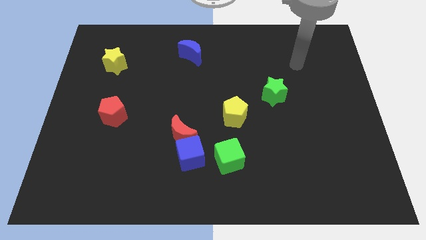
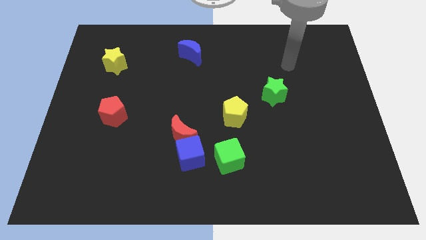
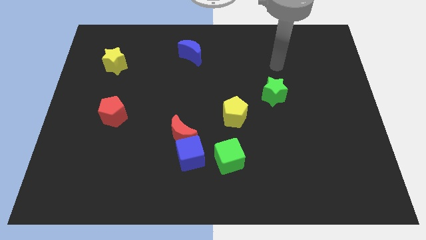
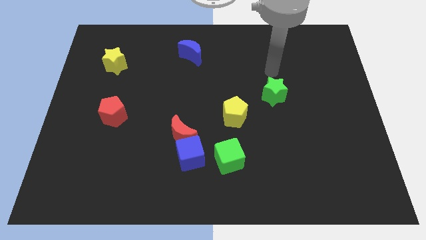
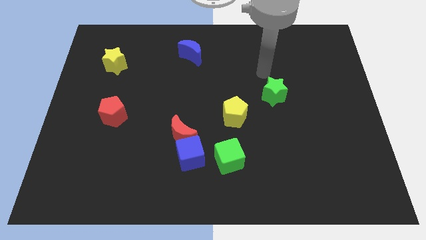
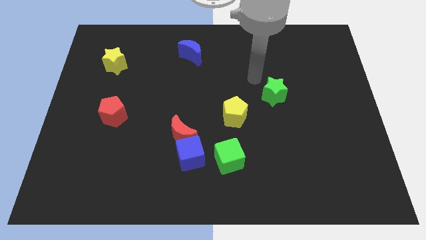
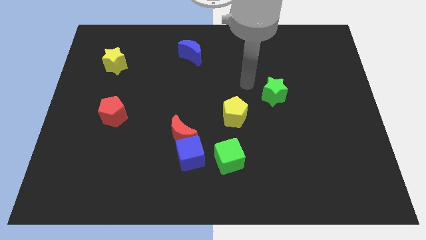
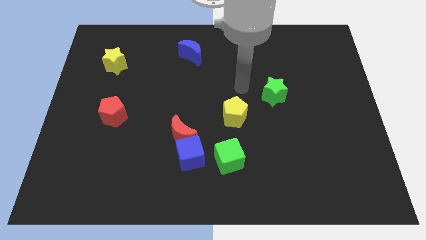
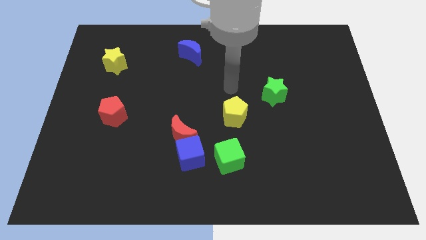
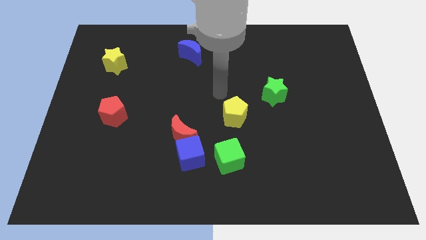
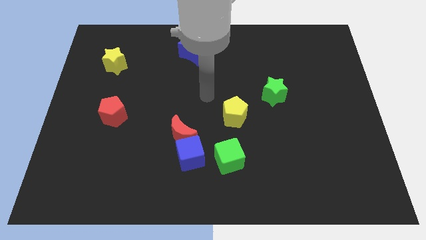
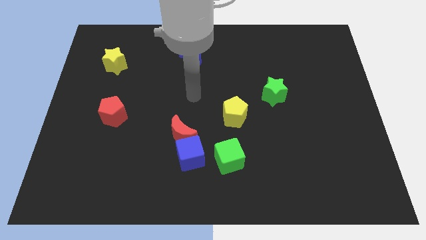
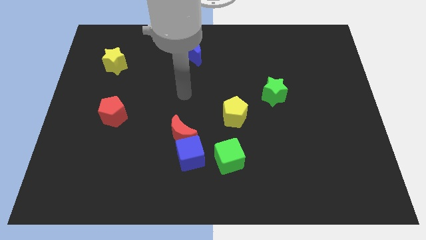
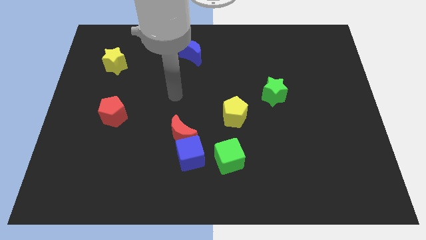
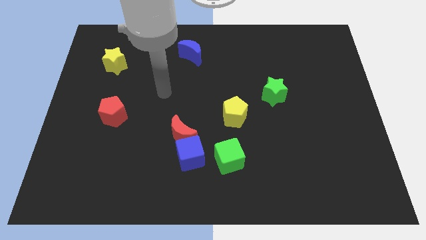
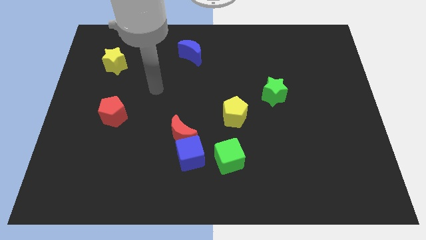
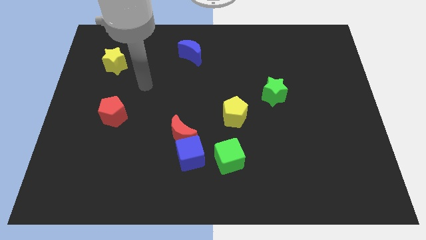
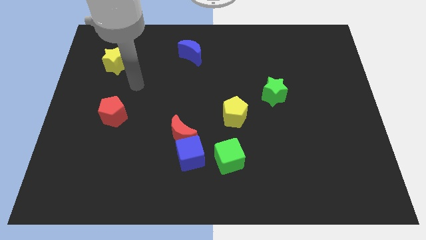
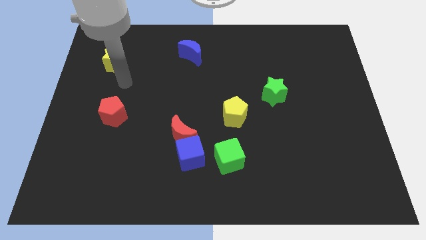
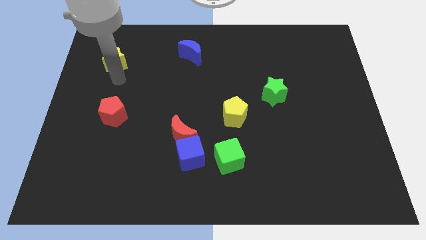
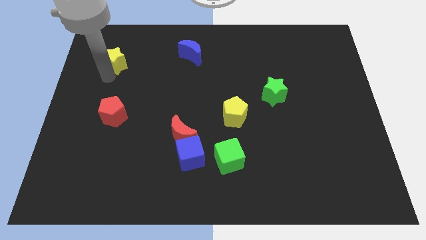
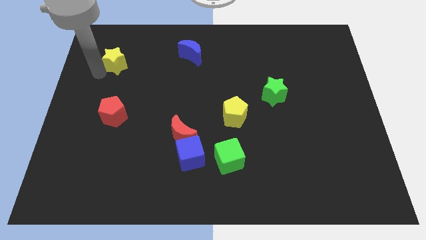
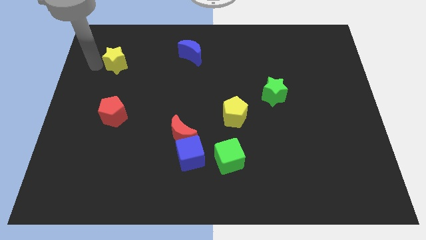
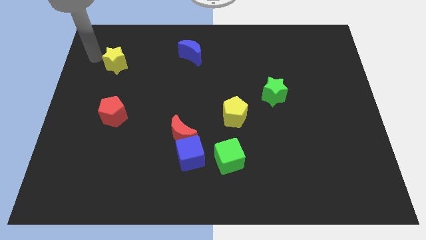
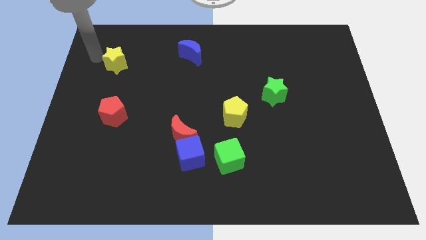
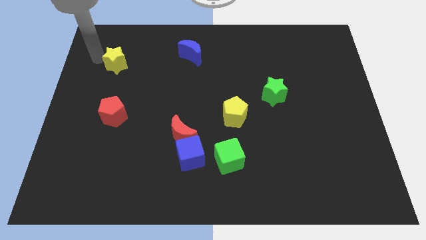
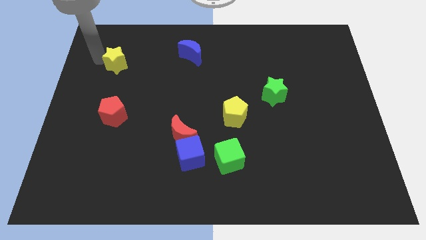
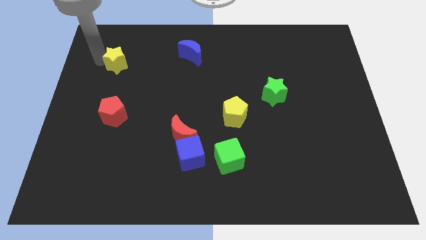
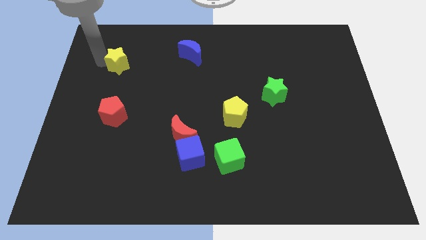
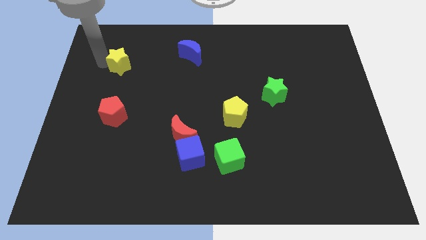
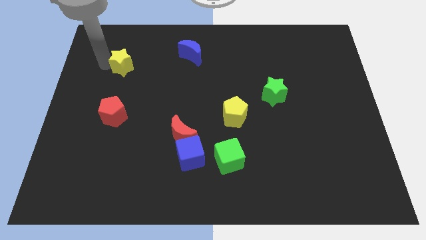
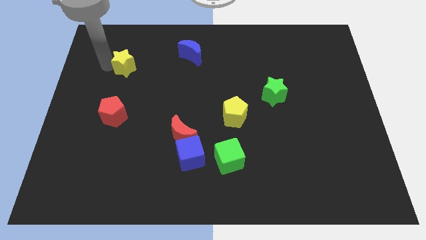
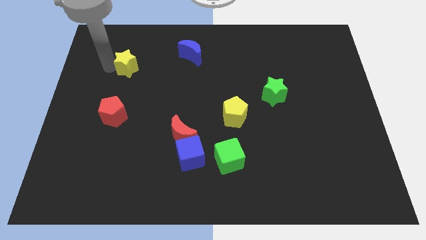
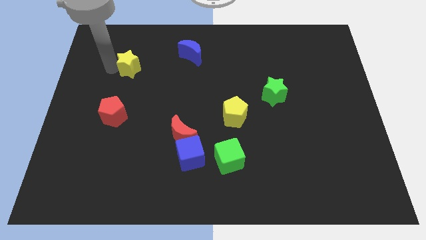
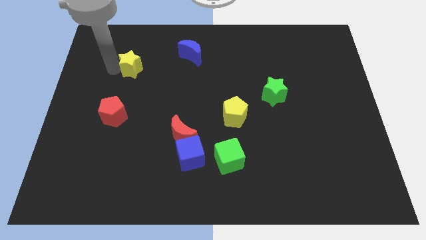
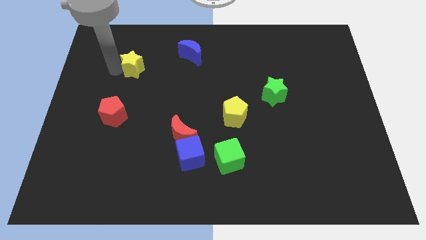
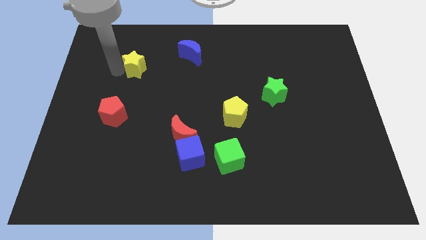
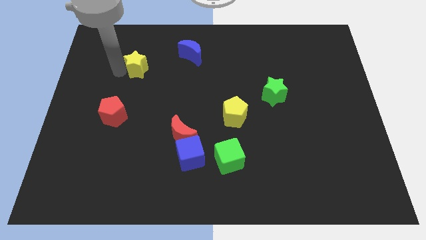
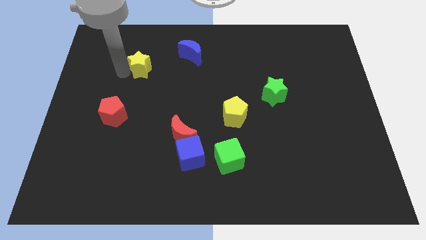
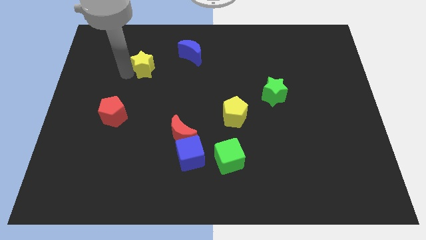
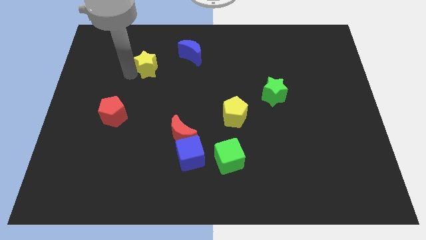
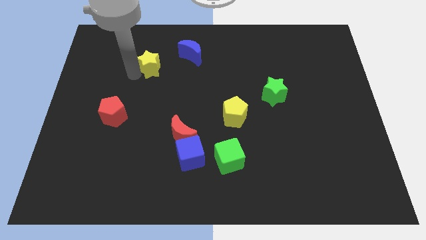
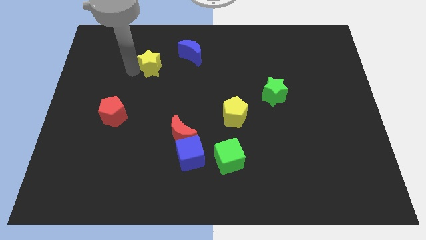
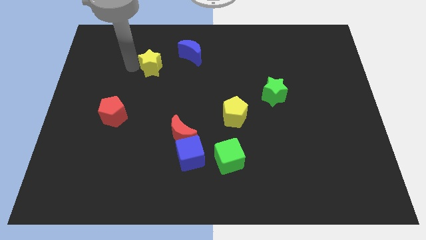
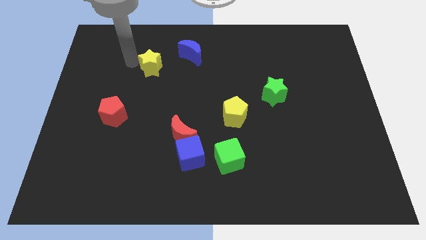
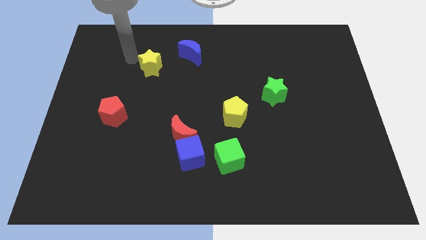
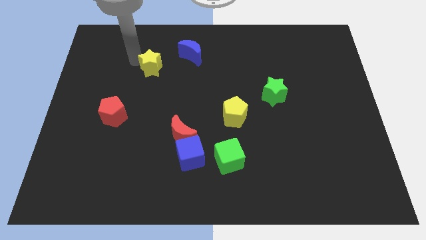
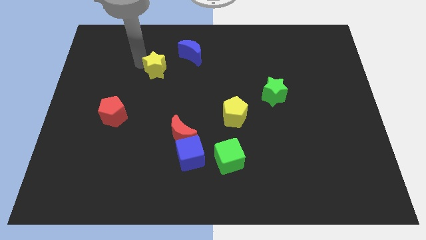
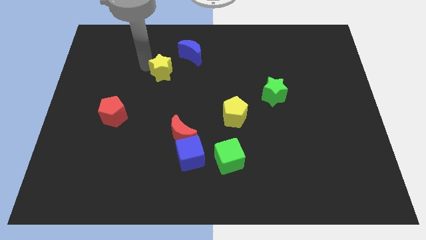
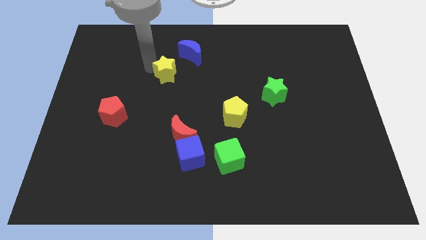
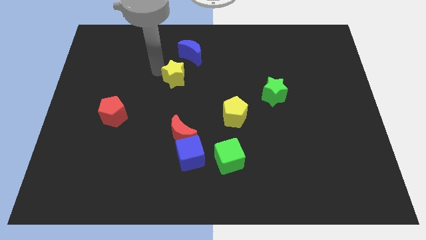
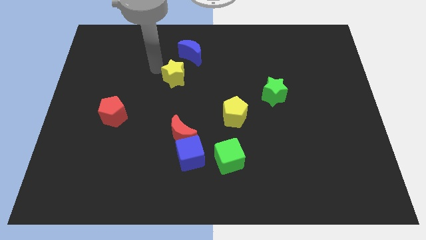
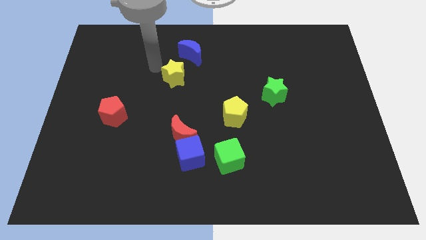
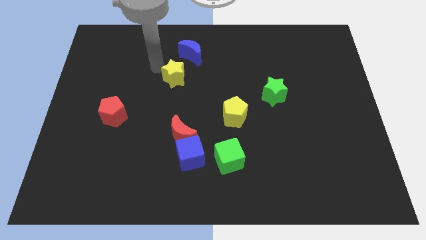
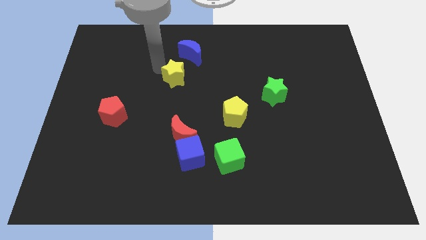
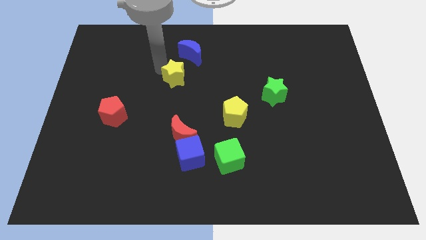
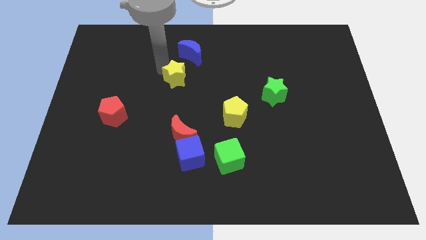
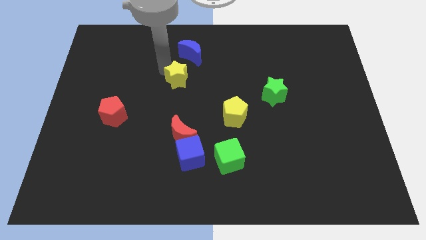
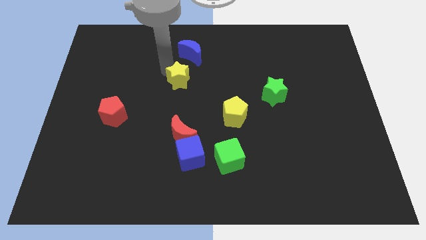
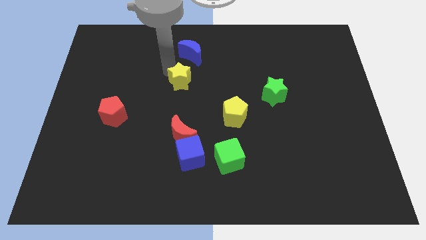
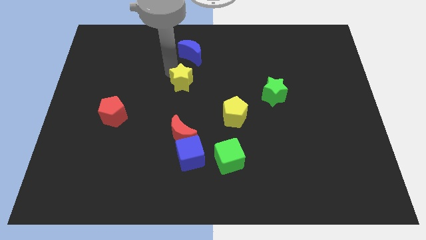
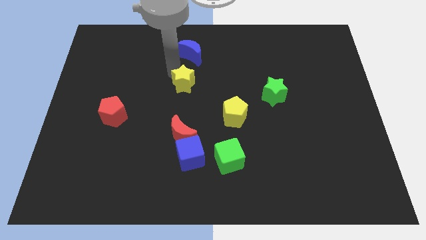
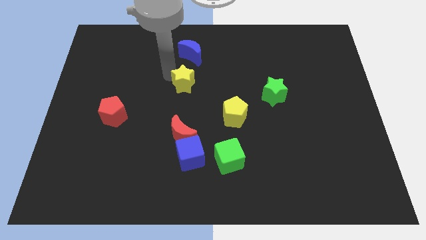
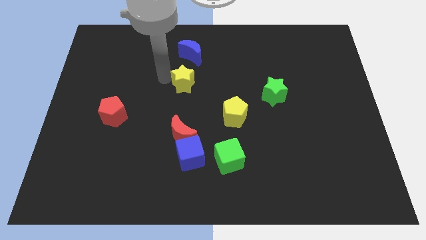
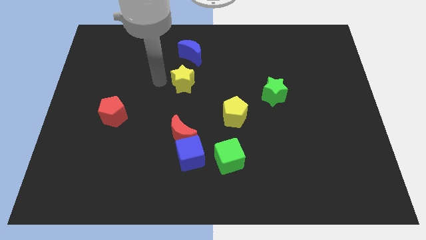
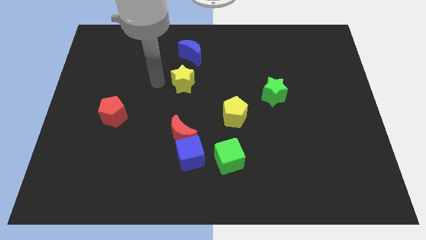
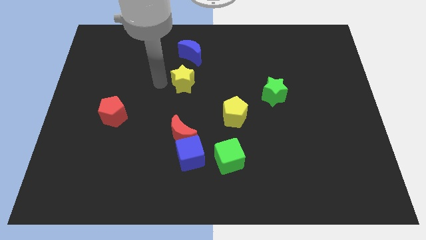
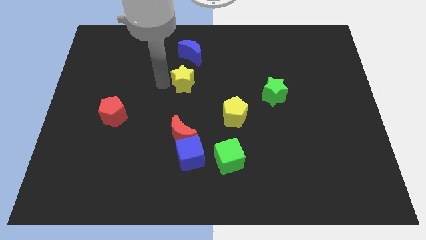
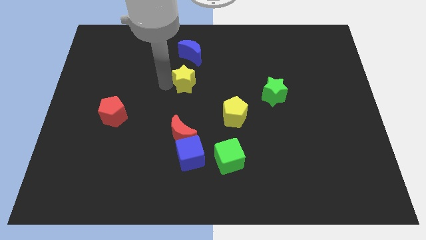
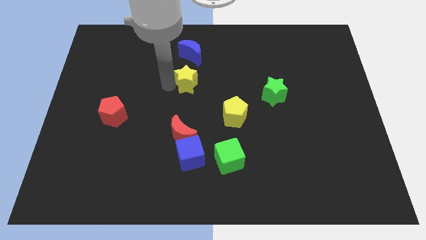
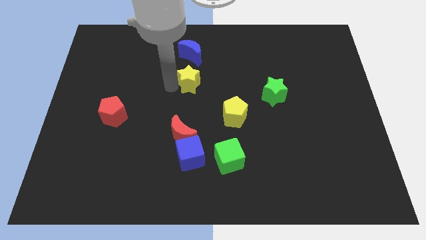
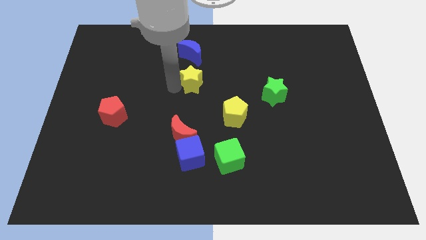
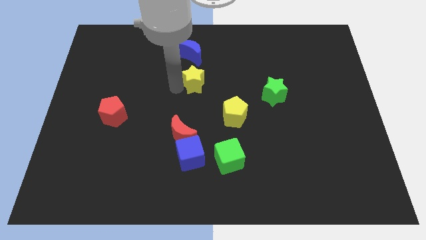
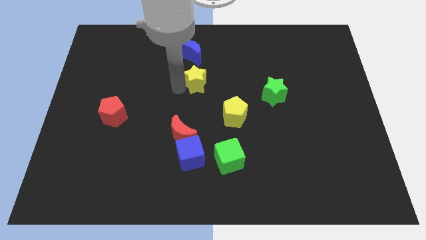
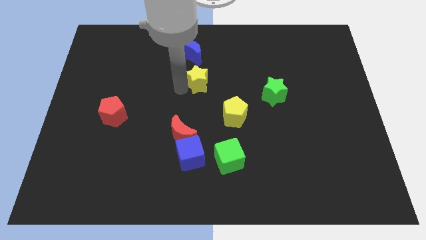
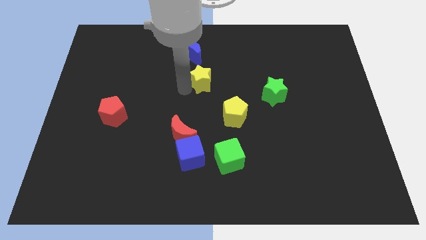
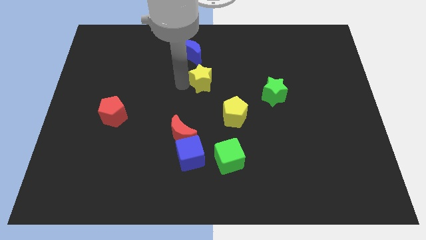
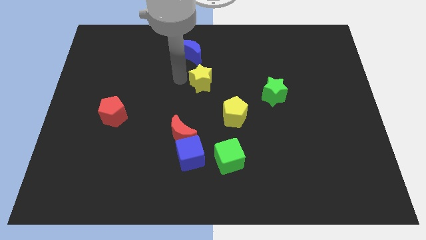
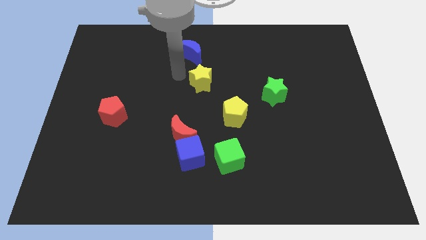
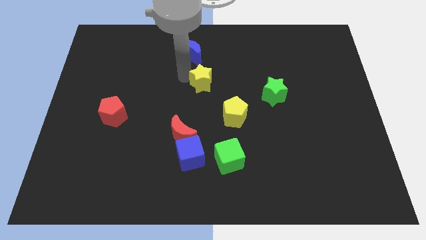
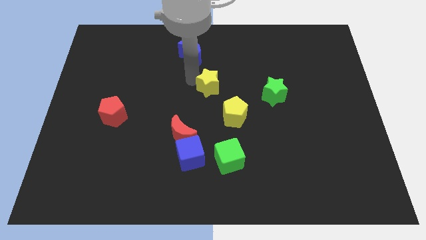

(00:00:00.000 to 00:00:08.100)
put the yellow star to the left of the green star
